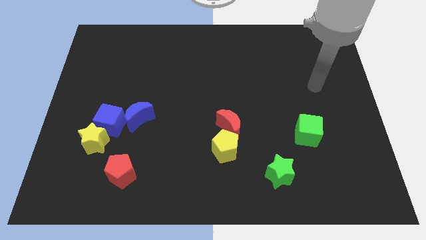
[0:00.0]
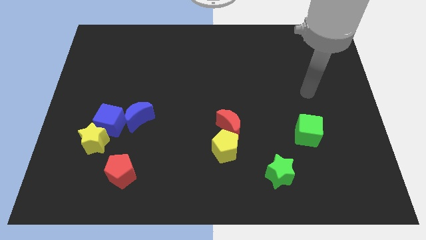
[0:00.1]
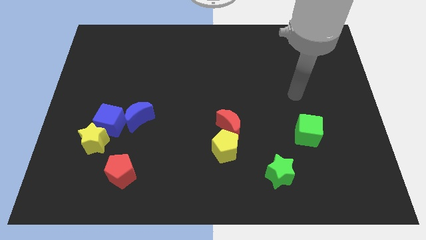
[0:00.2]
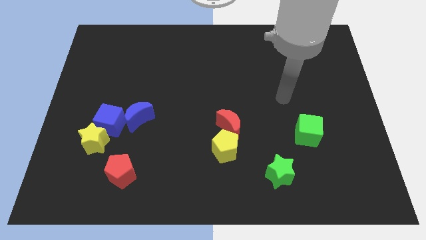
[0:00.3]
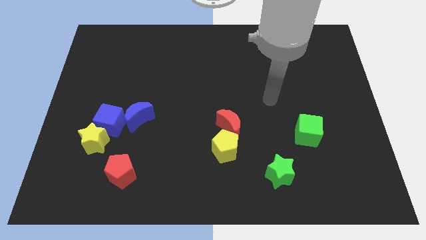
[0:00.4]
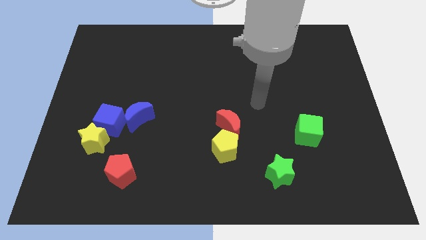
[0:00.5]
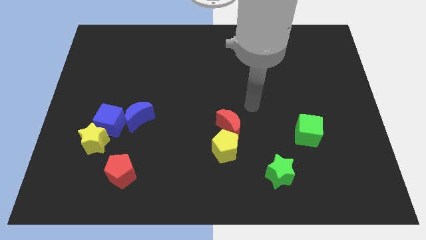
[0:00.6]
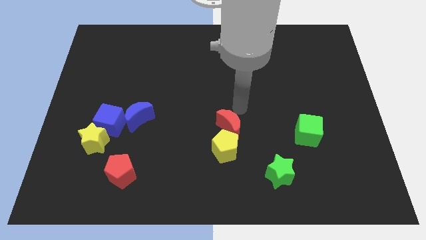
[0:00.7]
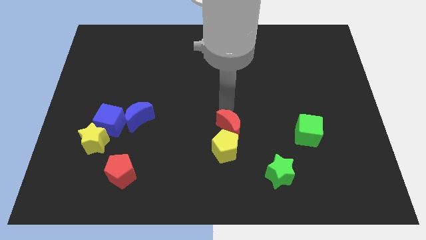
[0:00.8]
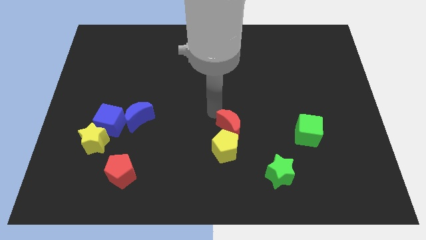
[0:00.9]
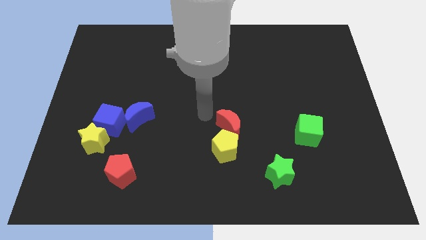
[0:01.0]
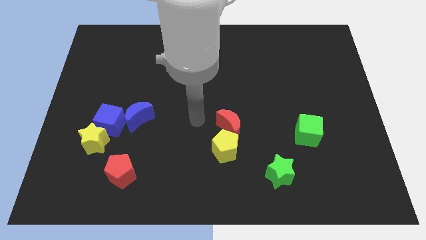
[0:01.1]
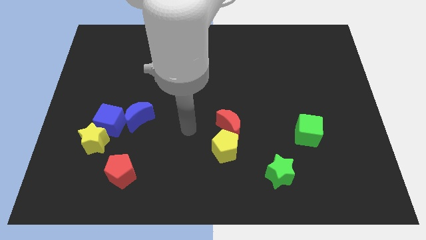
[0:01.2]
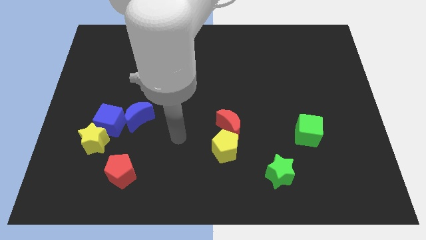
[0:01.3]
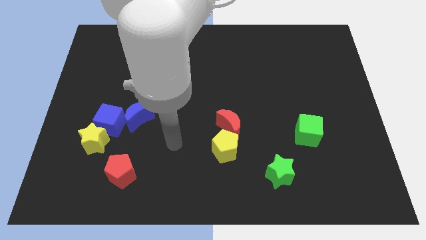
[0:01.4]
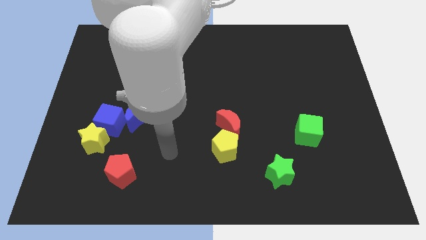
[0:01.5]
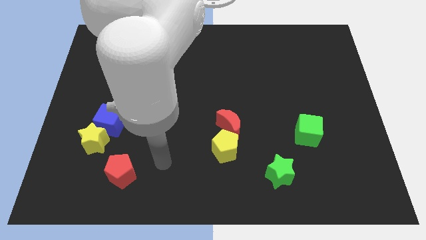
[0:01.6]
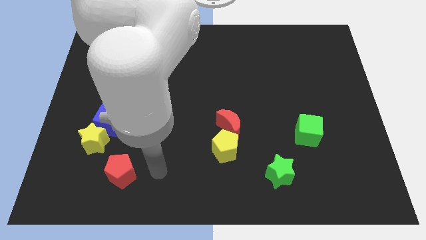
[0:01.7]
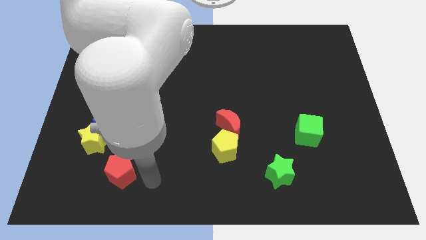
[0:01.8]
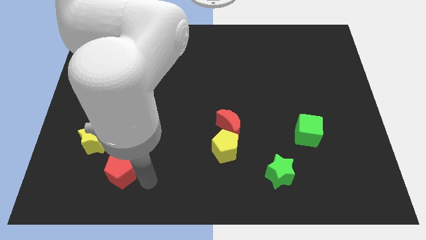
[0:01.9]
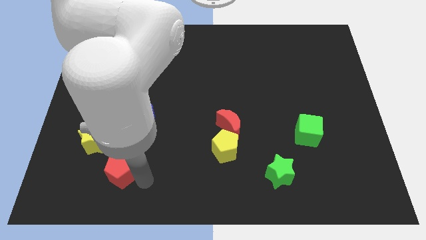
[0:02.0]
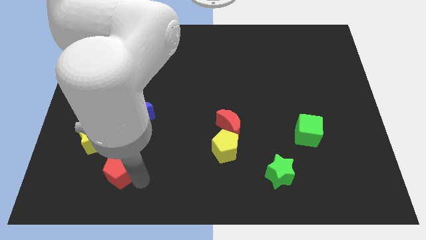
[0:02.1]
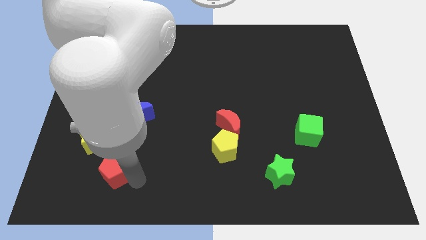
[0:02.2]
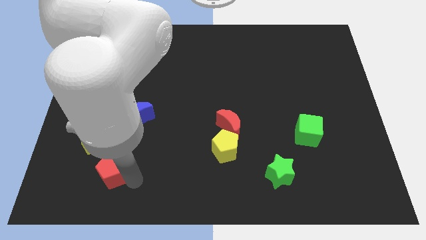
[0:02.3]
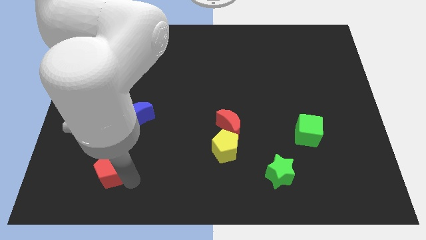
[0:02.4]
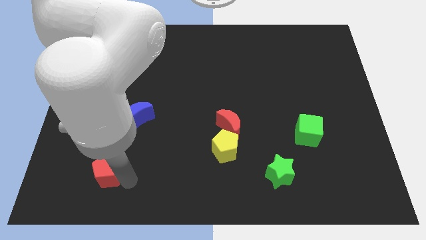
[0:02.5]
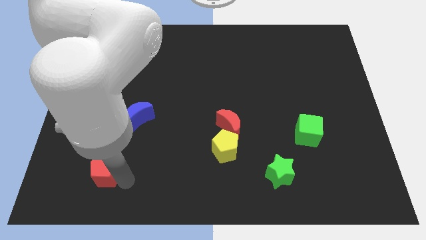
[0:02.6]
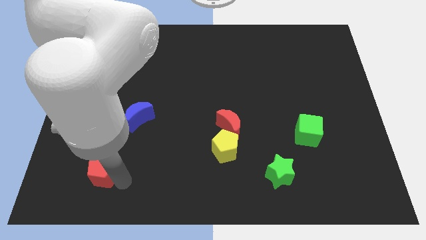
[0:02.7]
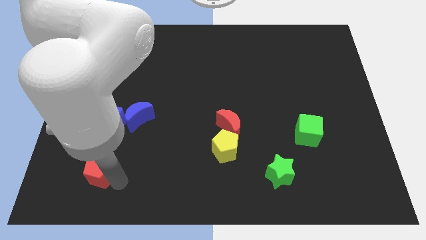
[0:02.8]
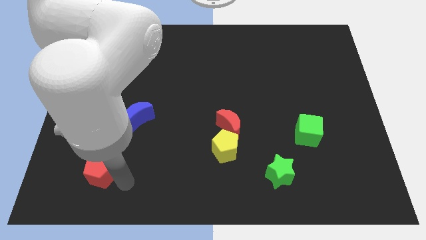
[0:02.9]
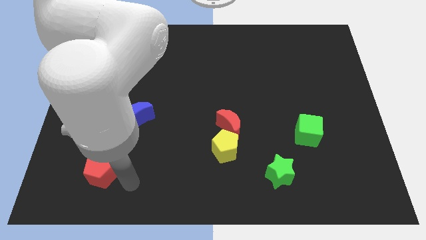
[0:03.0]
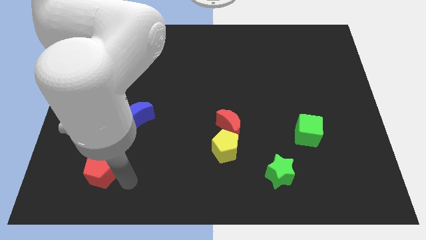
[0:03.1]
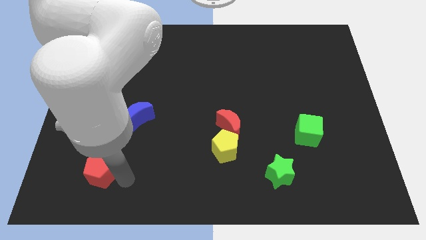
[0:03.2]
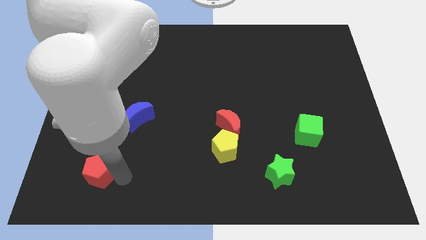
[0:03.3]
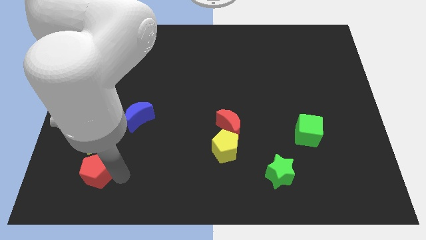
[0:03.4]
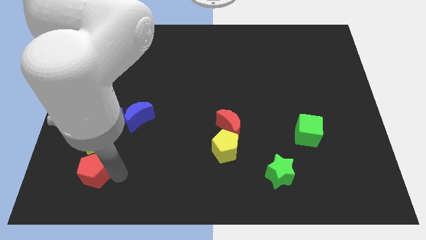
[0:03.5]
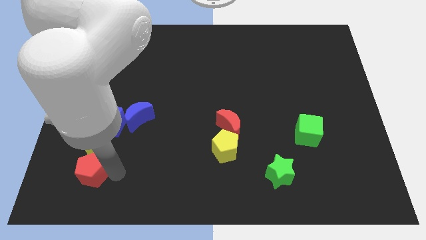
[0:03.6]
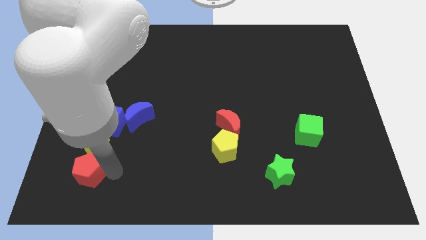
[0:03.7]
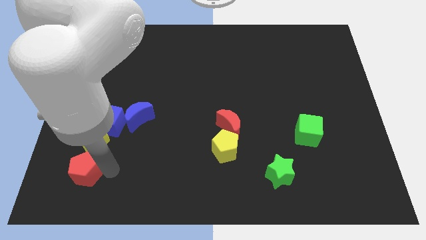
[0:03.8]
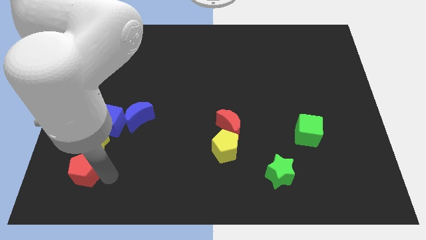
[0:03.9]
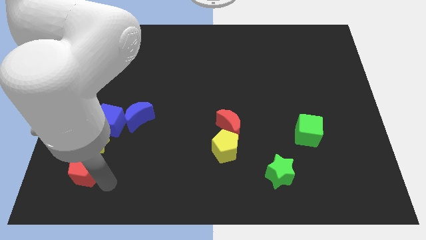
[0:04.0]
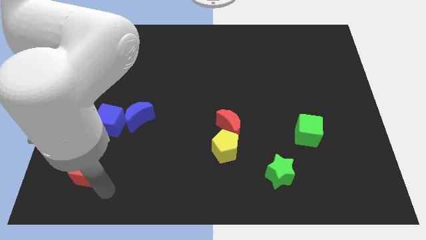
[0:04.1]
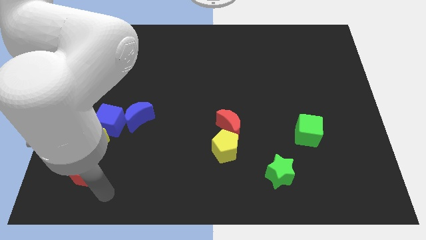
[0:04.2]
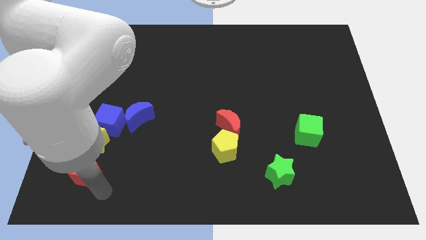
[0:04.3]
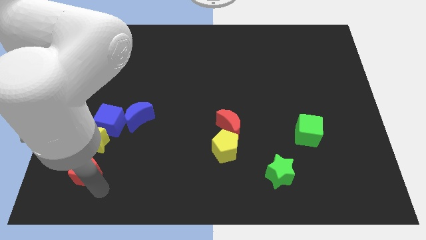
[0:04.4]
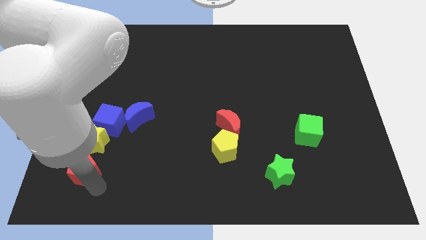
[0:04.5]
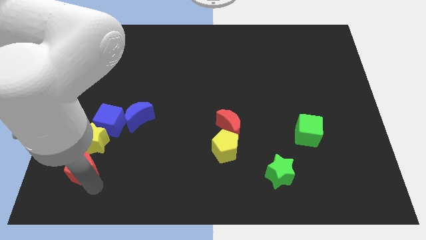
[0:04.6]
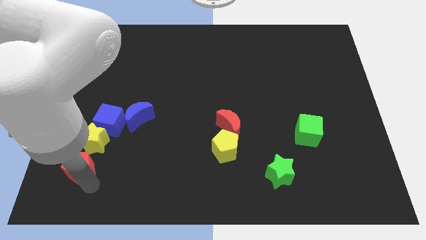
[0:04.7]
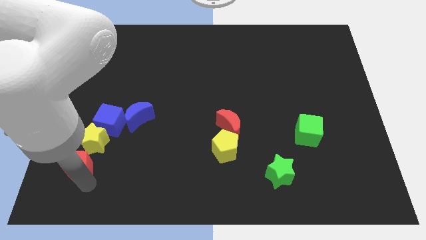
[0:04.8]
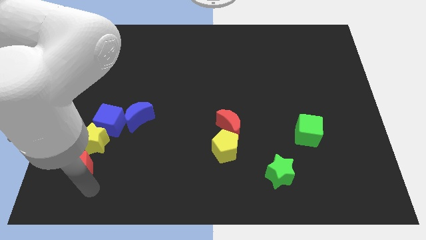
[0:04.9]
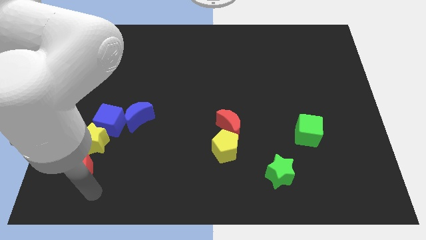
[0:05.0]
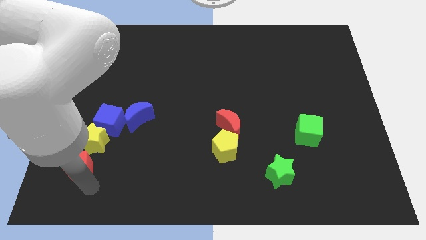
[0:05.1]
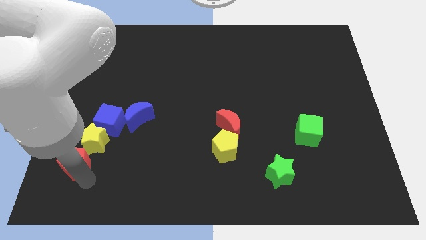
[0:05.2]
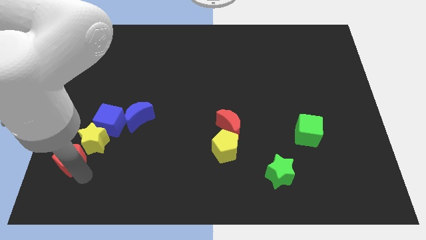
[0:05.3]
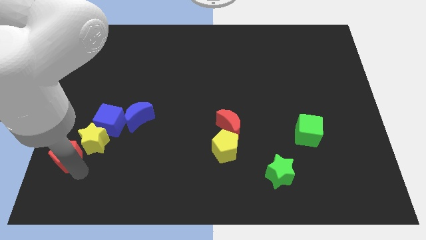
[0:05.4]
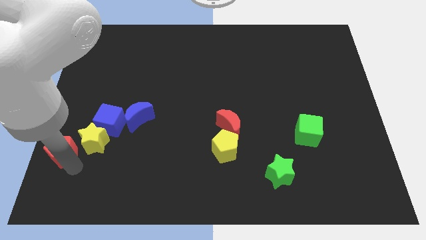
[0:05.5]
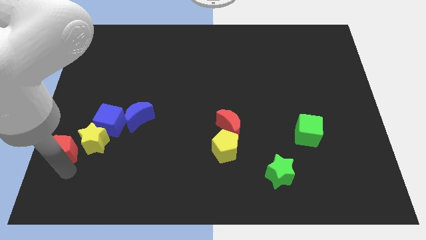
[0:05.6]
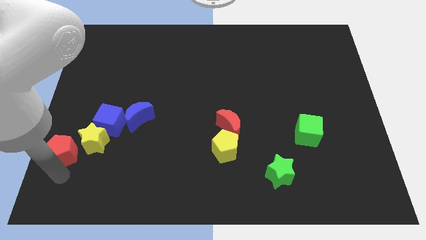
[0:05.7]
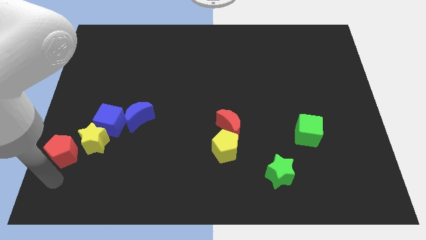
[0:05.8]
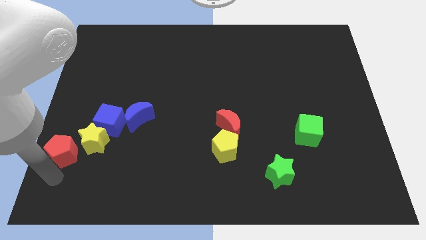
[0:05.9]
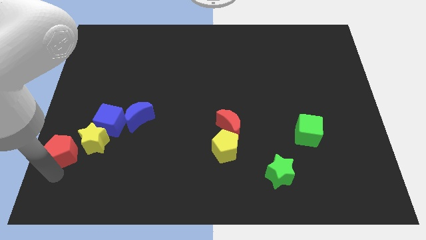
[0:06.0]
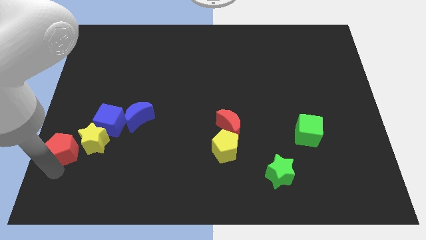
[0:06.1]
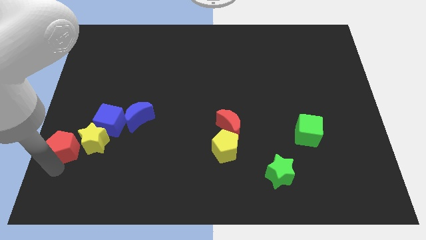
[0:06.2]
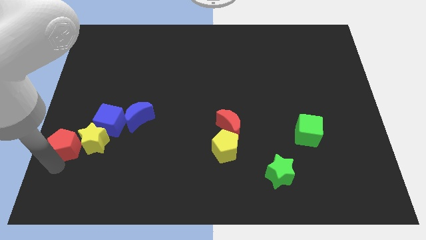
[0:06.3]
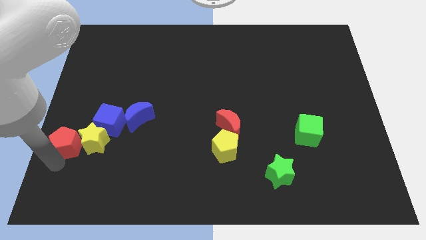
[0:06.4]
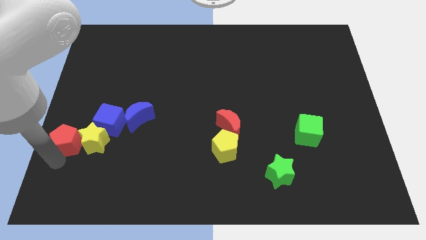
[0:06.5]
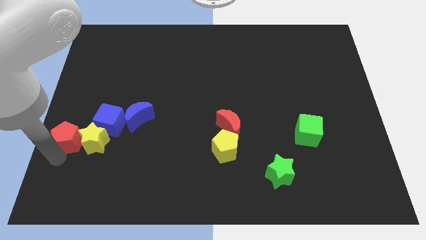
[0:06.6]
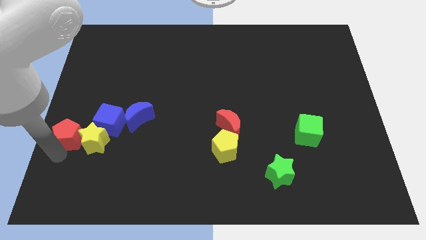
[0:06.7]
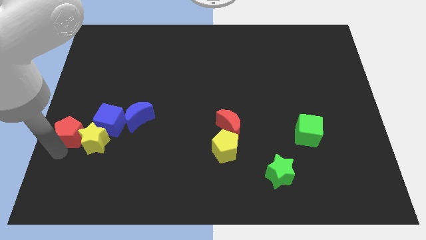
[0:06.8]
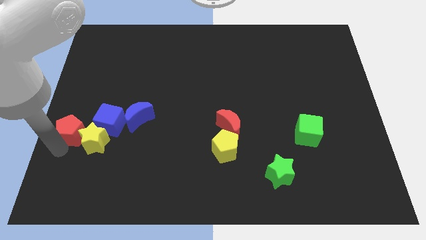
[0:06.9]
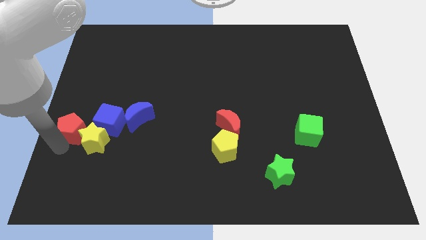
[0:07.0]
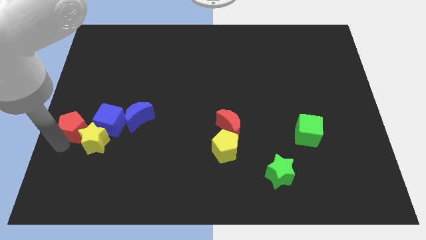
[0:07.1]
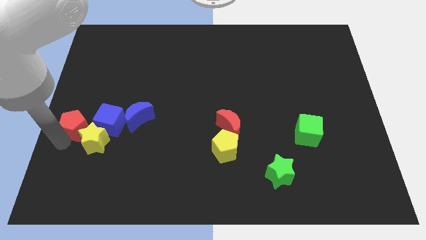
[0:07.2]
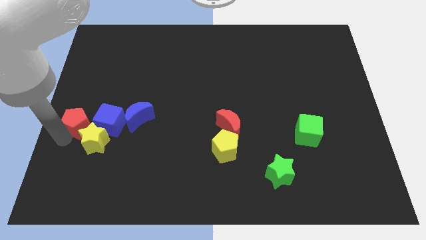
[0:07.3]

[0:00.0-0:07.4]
push the red pentagon to the top side of the yellow star
